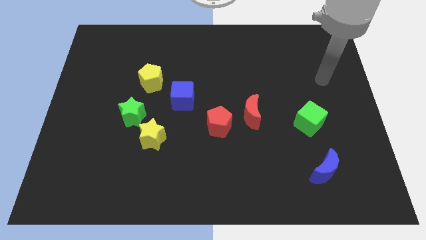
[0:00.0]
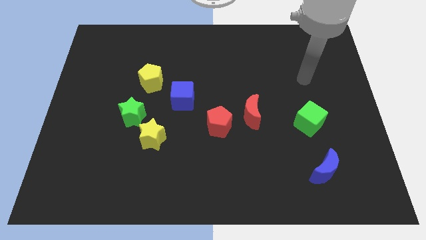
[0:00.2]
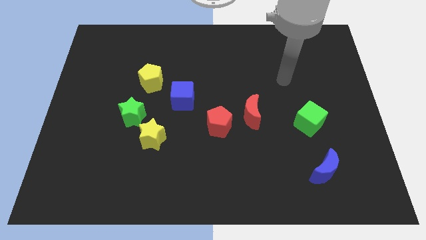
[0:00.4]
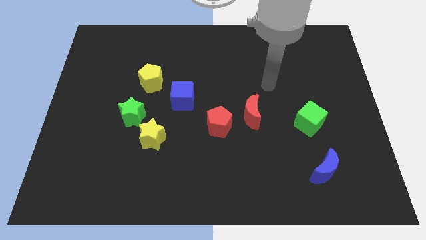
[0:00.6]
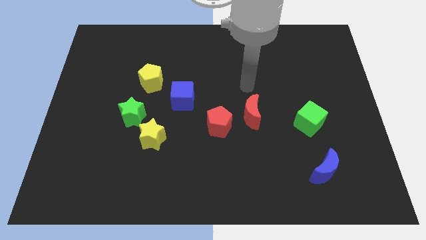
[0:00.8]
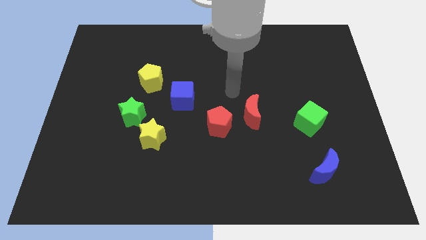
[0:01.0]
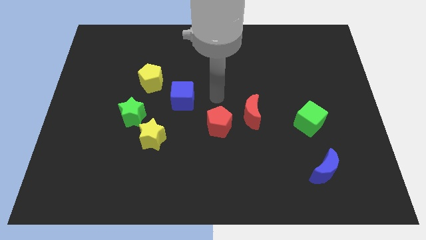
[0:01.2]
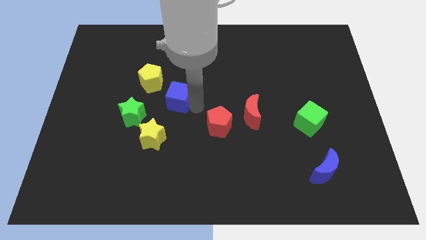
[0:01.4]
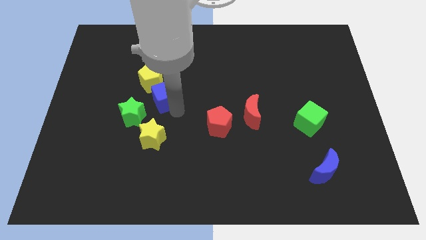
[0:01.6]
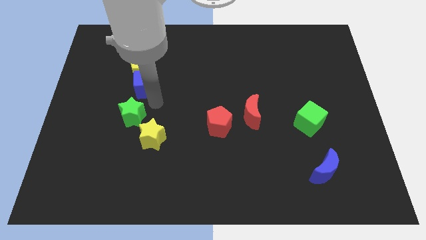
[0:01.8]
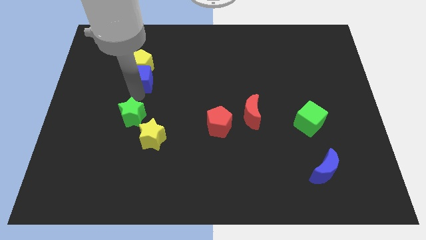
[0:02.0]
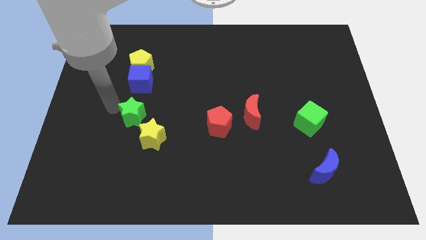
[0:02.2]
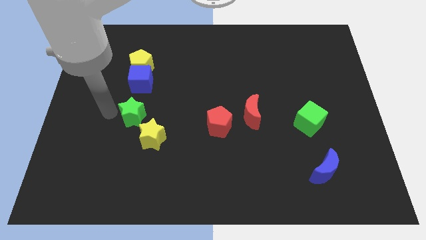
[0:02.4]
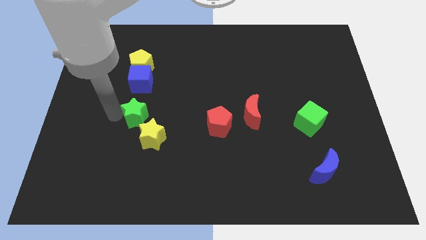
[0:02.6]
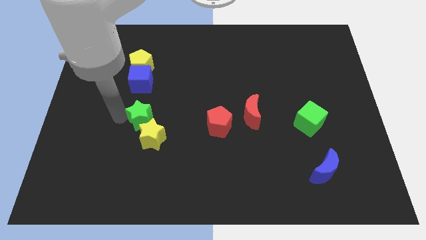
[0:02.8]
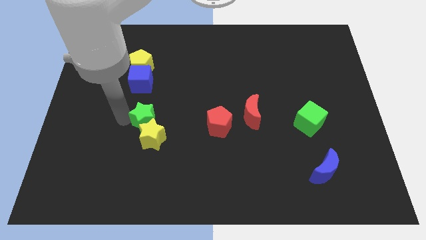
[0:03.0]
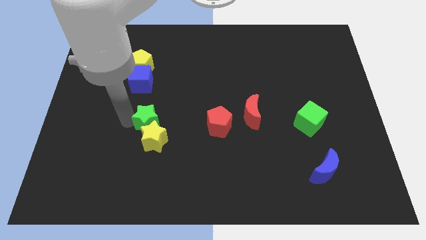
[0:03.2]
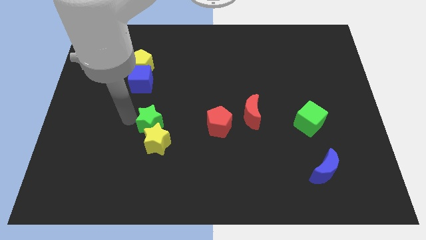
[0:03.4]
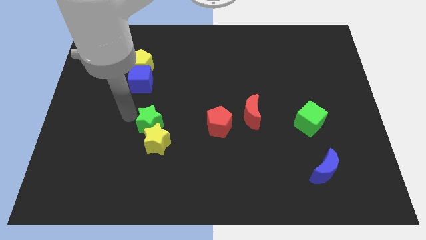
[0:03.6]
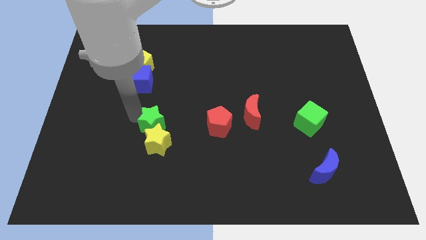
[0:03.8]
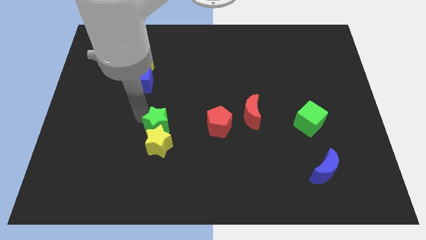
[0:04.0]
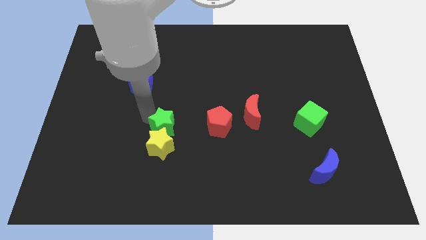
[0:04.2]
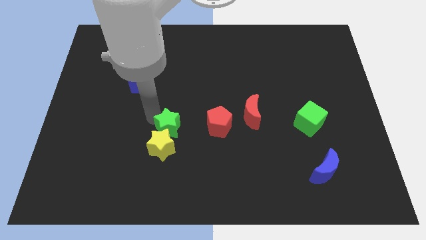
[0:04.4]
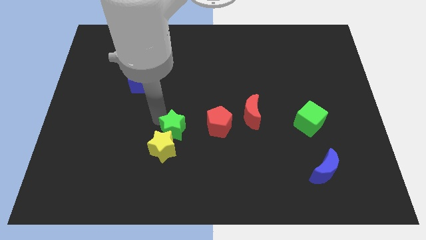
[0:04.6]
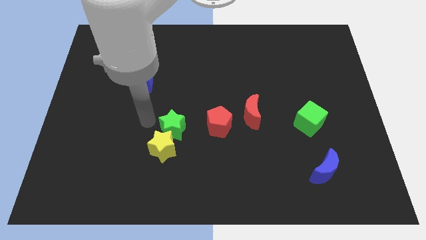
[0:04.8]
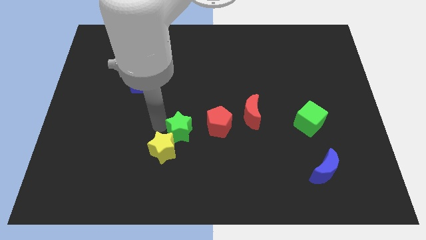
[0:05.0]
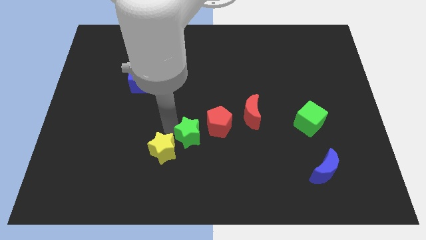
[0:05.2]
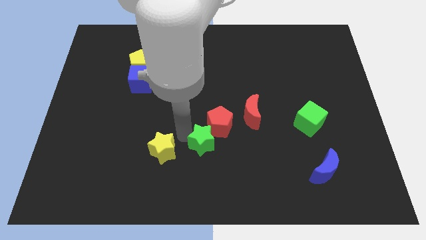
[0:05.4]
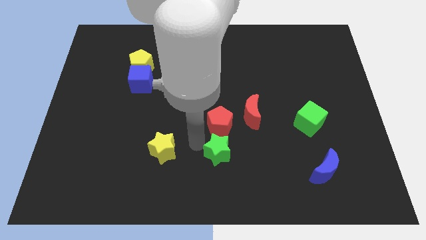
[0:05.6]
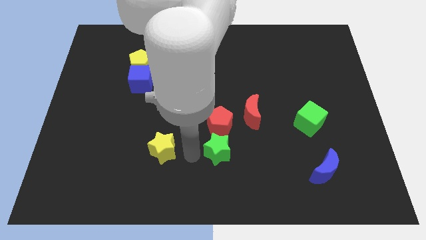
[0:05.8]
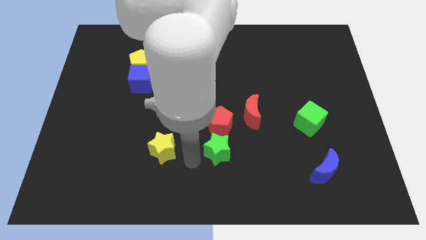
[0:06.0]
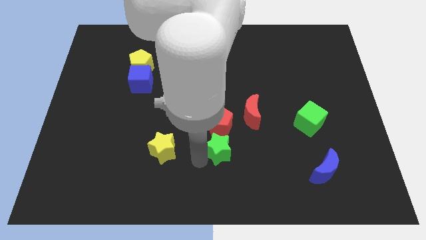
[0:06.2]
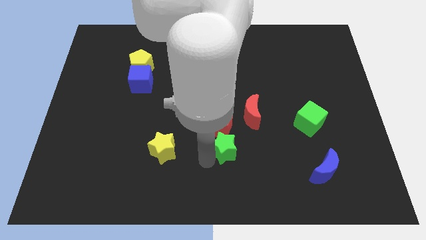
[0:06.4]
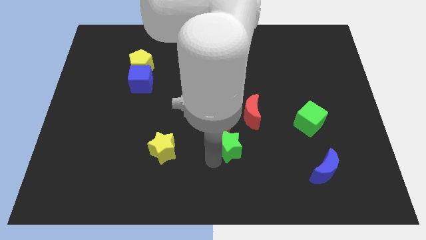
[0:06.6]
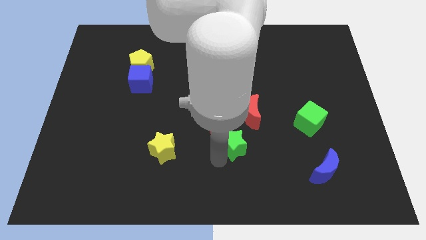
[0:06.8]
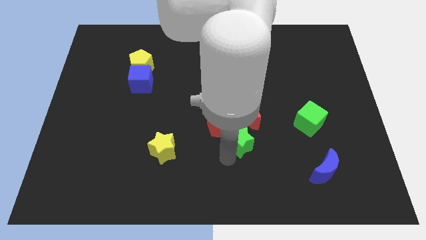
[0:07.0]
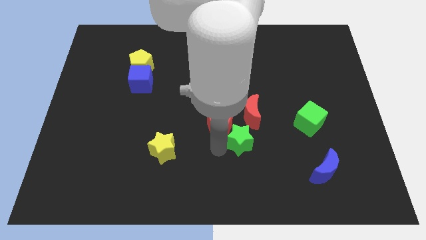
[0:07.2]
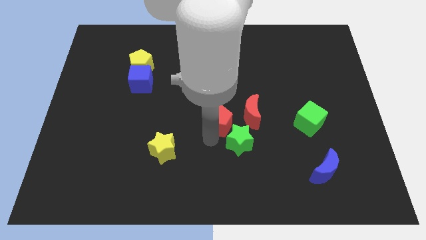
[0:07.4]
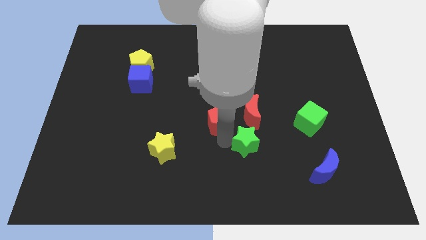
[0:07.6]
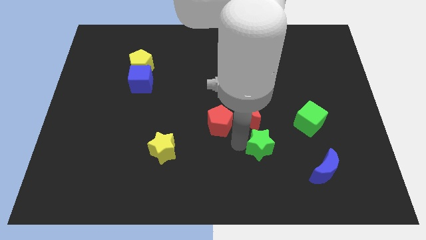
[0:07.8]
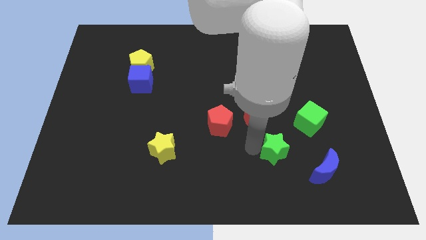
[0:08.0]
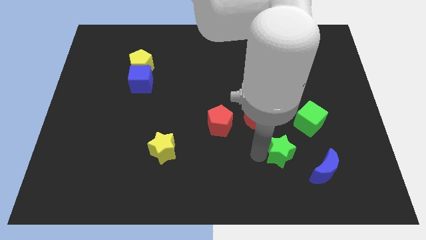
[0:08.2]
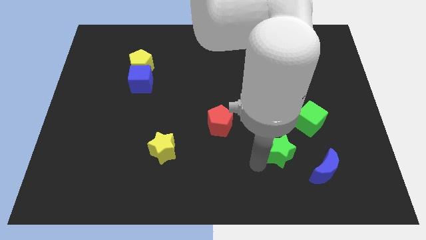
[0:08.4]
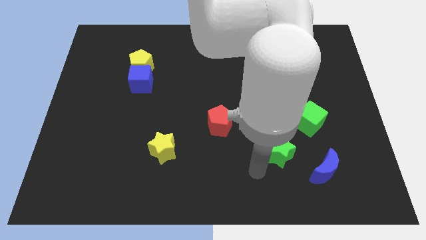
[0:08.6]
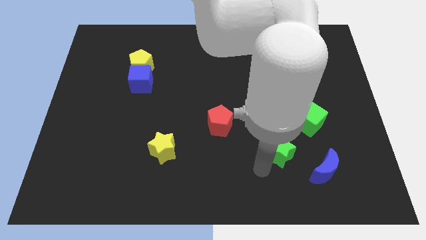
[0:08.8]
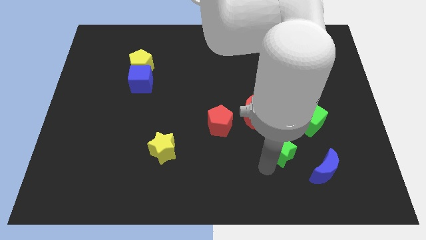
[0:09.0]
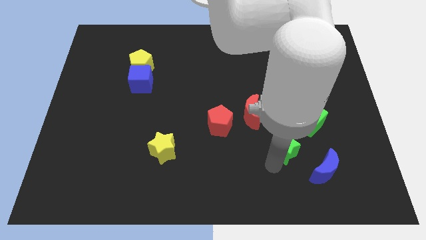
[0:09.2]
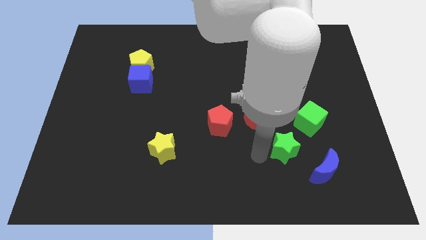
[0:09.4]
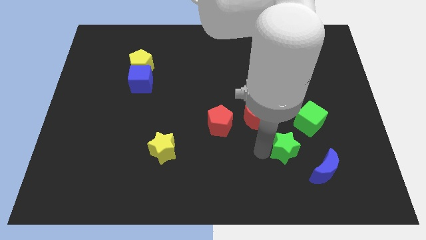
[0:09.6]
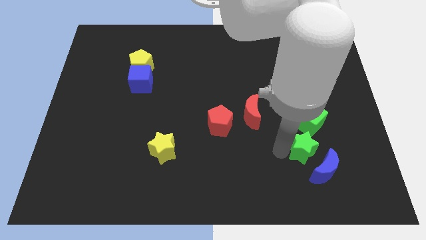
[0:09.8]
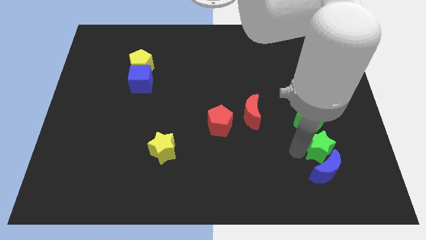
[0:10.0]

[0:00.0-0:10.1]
slide the green star to the top right side of the blue moon

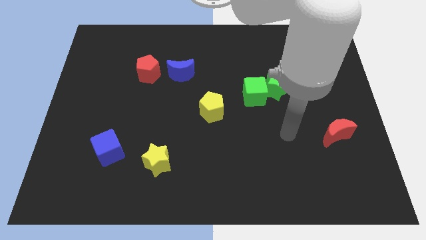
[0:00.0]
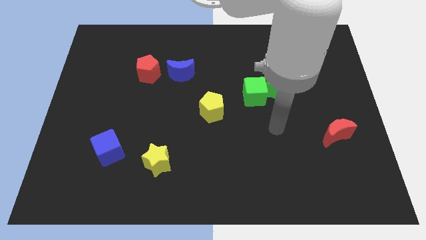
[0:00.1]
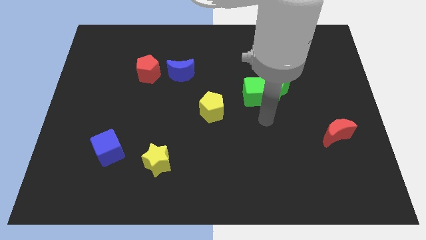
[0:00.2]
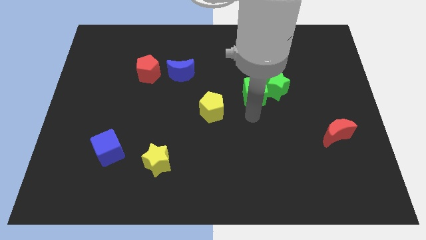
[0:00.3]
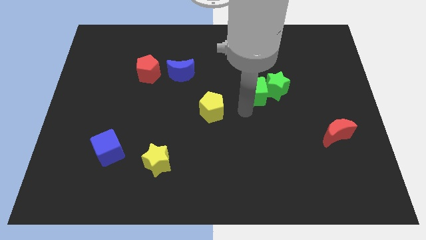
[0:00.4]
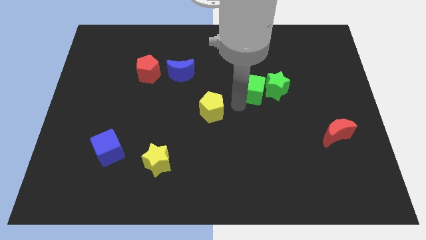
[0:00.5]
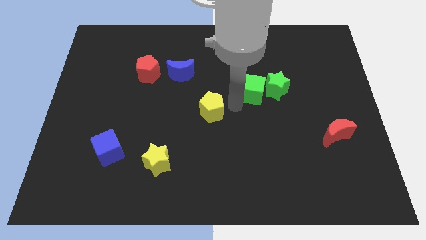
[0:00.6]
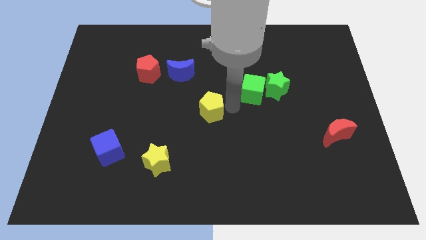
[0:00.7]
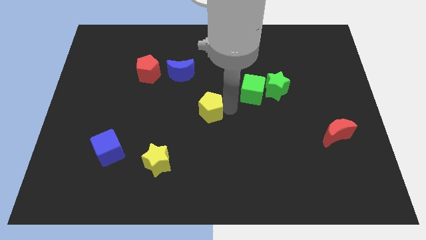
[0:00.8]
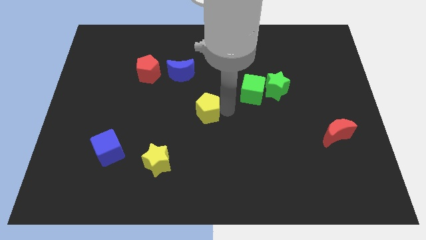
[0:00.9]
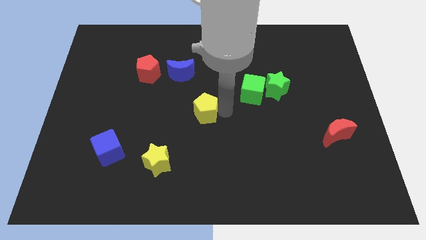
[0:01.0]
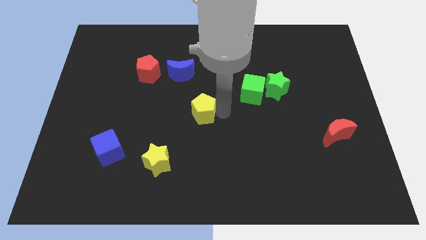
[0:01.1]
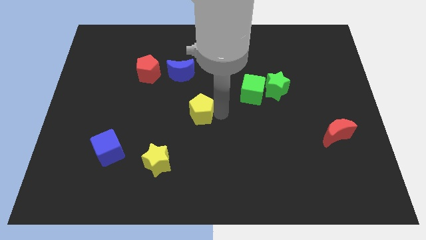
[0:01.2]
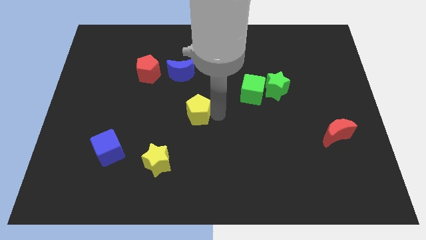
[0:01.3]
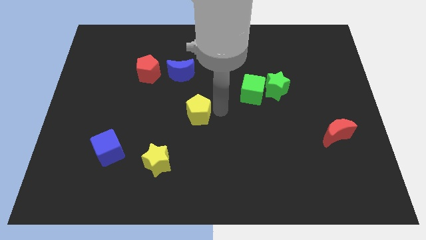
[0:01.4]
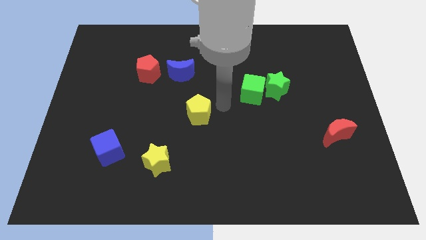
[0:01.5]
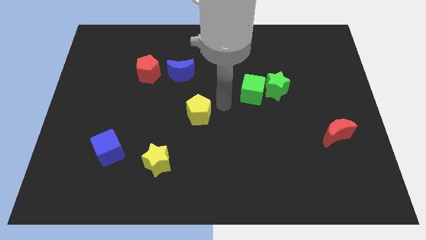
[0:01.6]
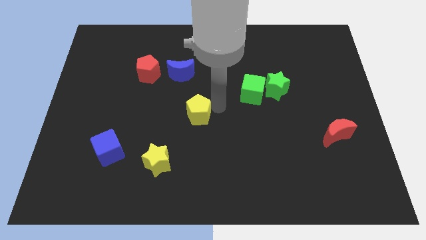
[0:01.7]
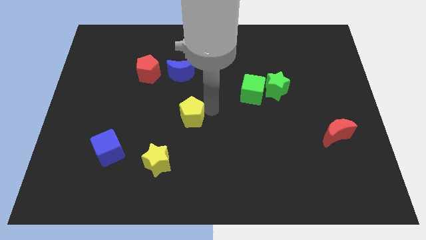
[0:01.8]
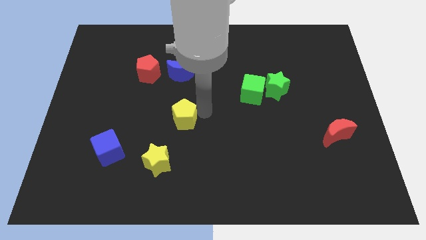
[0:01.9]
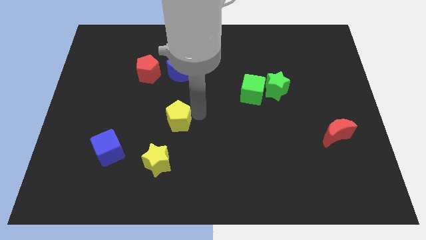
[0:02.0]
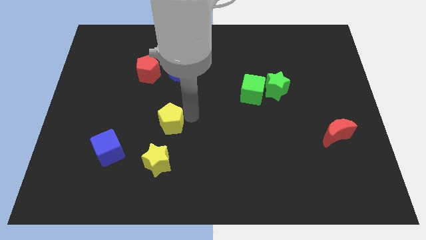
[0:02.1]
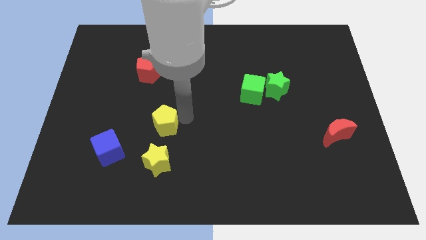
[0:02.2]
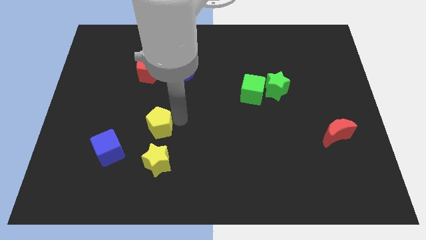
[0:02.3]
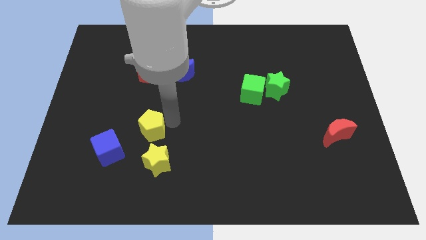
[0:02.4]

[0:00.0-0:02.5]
push the yellow pentagon to the top left of the yellow star
